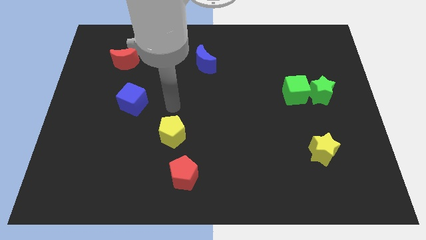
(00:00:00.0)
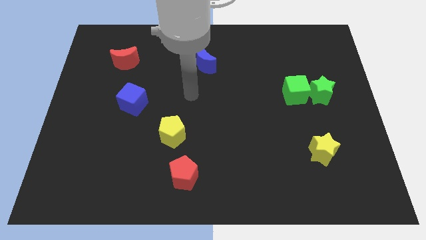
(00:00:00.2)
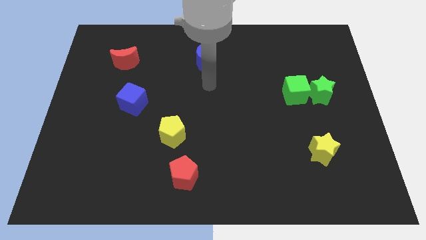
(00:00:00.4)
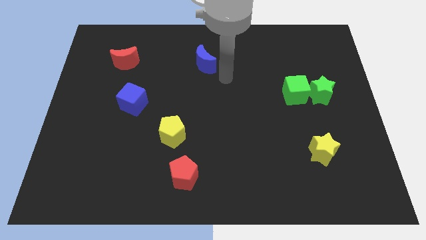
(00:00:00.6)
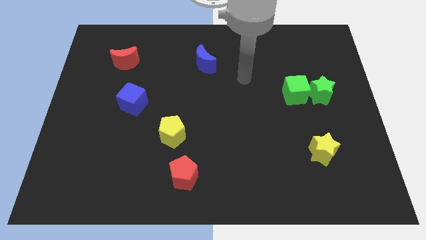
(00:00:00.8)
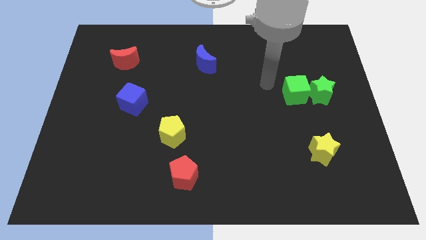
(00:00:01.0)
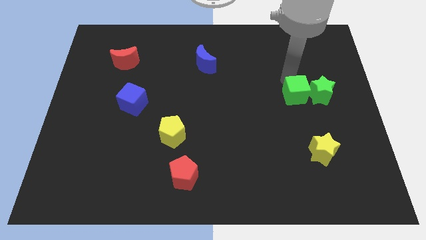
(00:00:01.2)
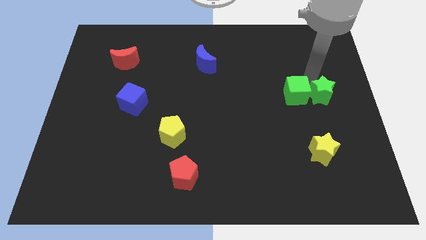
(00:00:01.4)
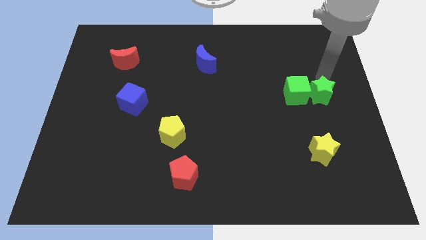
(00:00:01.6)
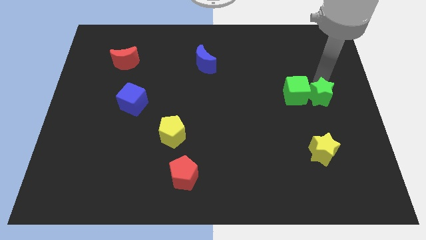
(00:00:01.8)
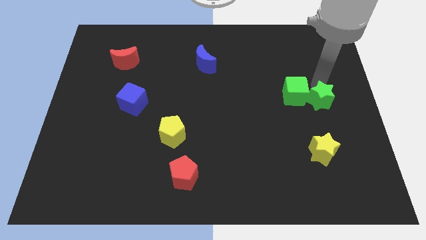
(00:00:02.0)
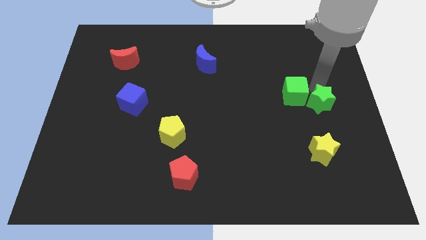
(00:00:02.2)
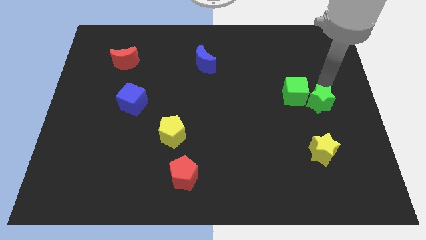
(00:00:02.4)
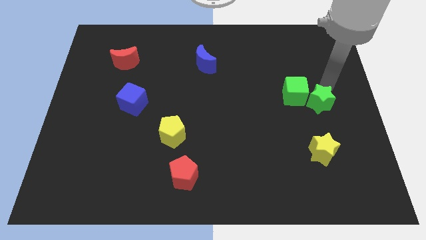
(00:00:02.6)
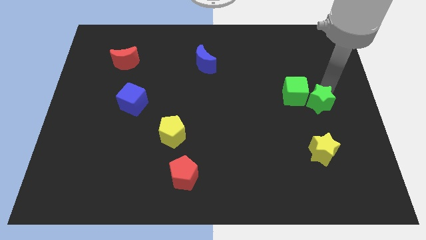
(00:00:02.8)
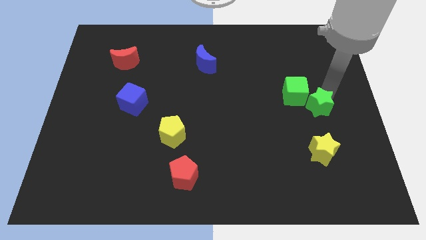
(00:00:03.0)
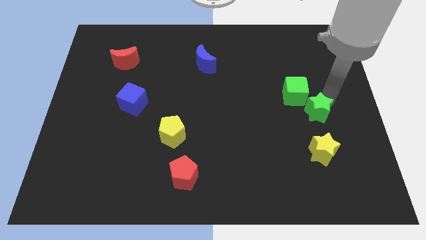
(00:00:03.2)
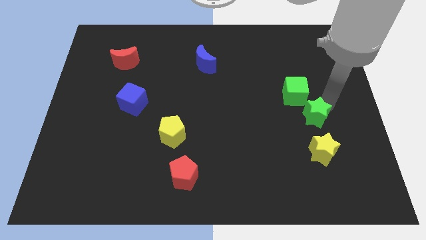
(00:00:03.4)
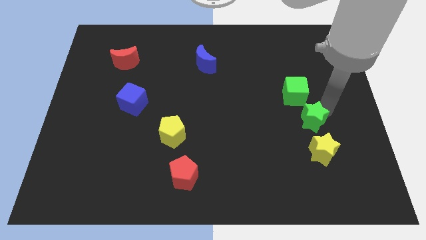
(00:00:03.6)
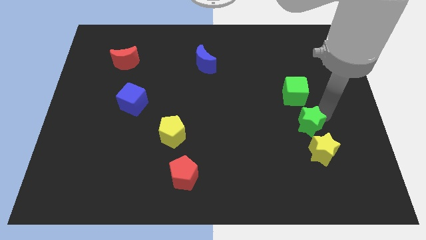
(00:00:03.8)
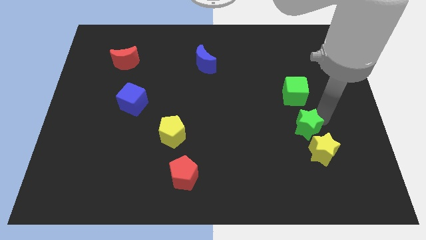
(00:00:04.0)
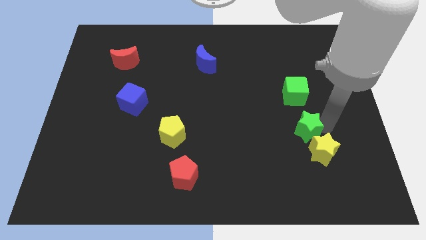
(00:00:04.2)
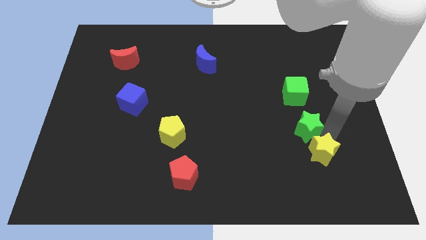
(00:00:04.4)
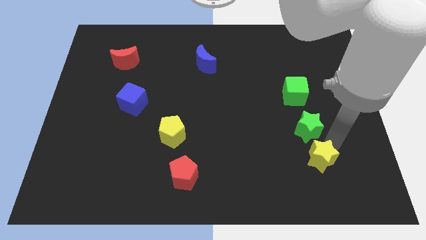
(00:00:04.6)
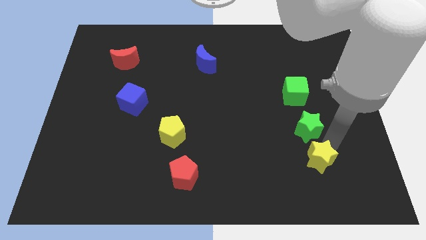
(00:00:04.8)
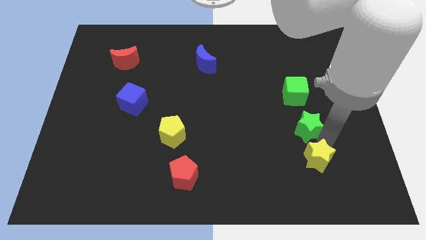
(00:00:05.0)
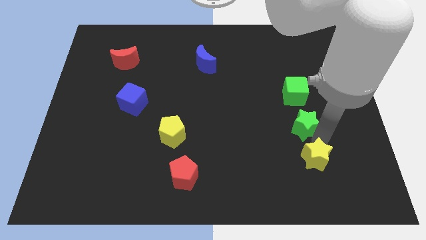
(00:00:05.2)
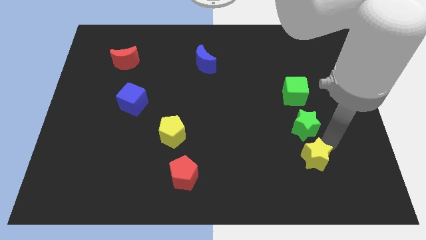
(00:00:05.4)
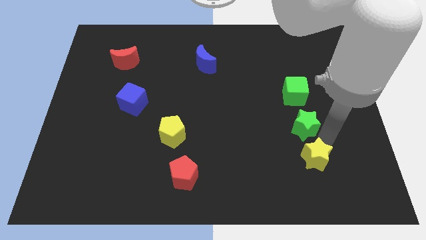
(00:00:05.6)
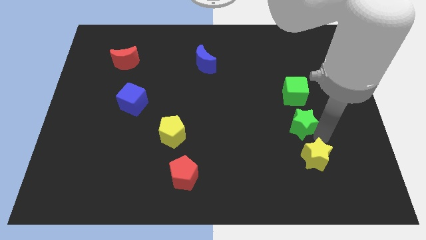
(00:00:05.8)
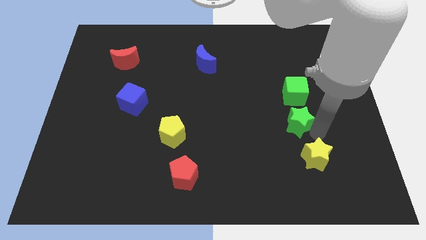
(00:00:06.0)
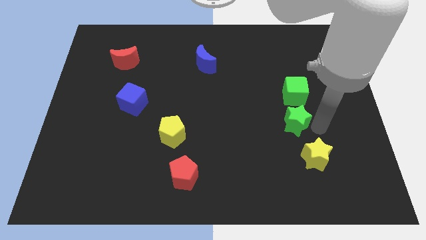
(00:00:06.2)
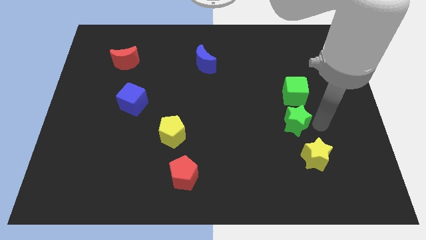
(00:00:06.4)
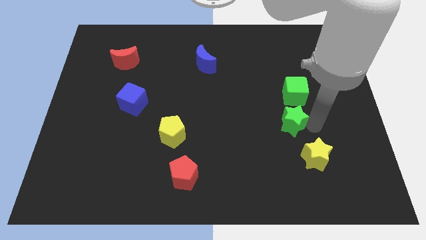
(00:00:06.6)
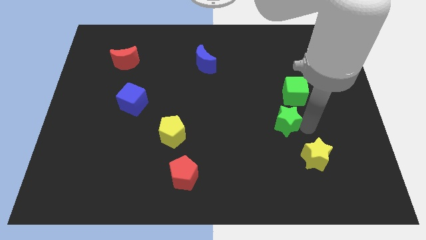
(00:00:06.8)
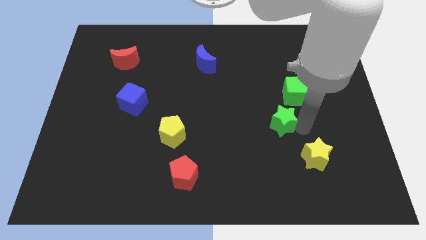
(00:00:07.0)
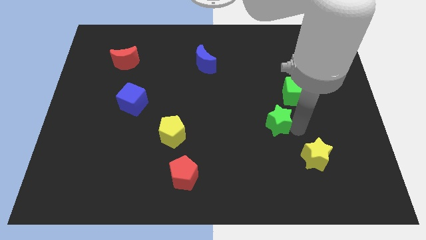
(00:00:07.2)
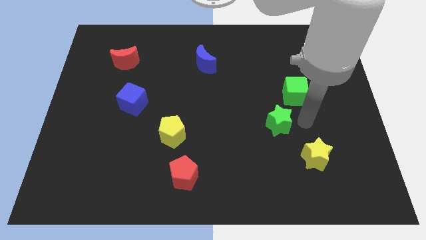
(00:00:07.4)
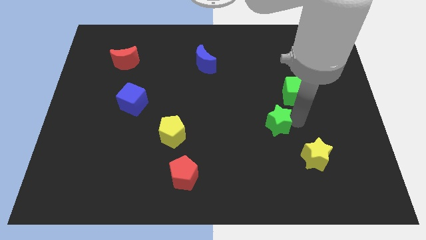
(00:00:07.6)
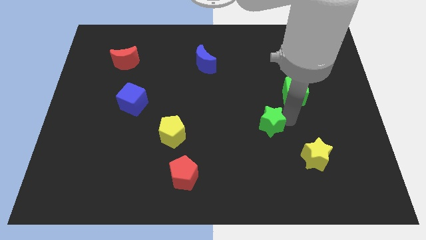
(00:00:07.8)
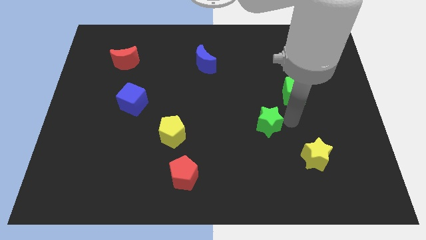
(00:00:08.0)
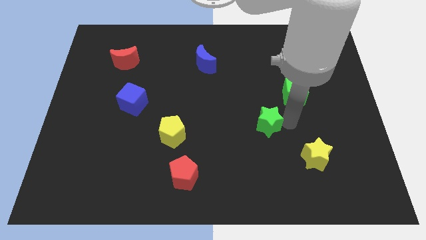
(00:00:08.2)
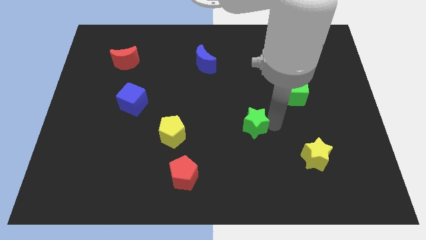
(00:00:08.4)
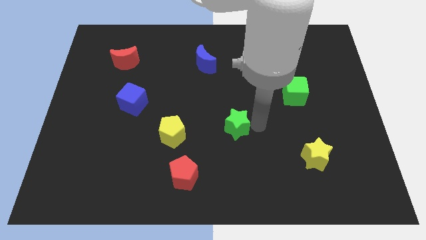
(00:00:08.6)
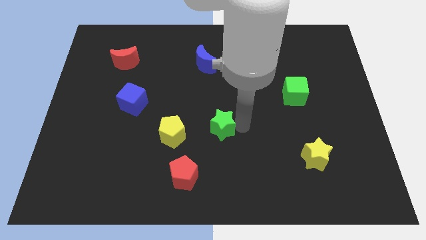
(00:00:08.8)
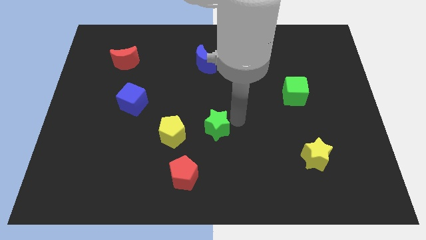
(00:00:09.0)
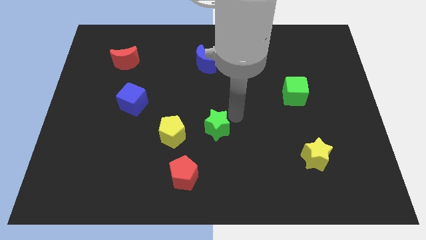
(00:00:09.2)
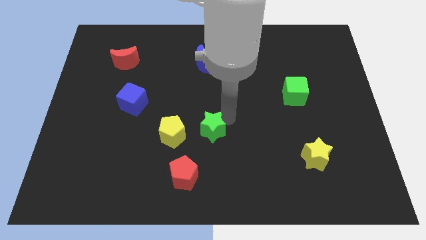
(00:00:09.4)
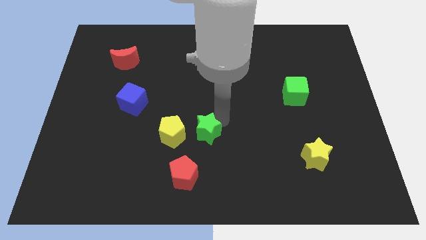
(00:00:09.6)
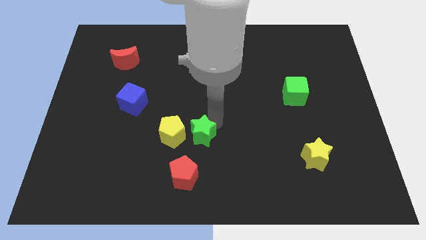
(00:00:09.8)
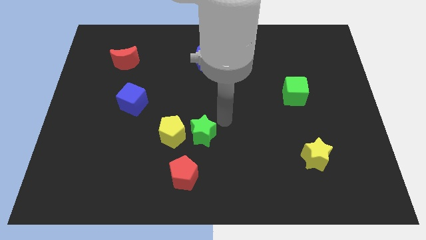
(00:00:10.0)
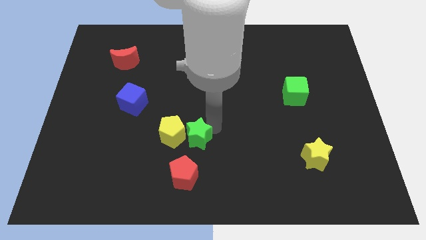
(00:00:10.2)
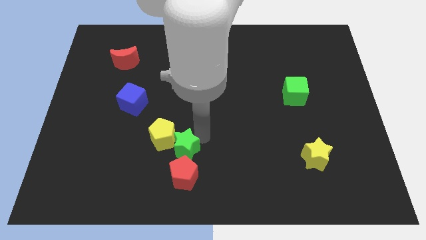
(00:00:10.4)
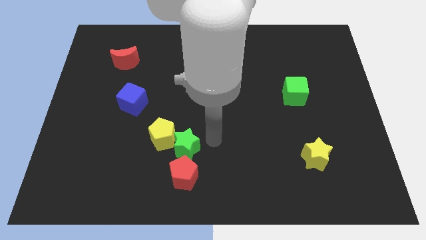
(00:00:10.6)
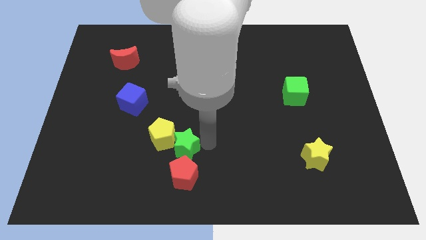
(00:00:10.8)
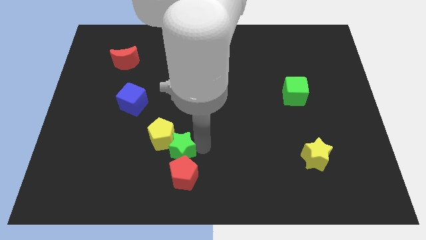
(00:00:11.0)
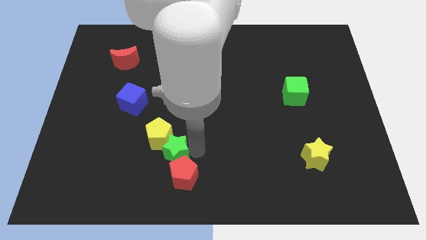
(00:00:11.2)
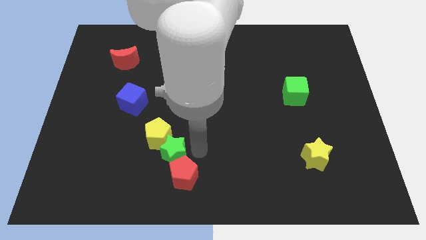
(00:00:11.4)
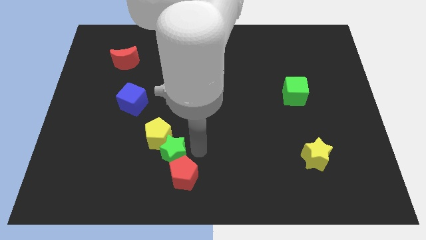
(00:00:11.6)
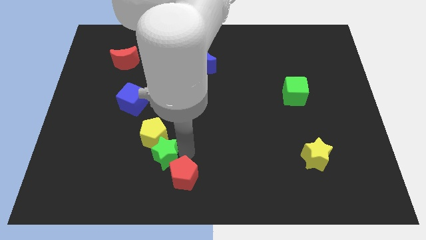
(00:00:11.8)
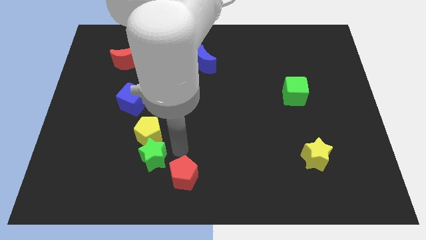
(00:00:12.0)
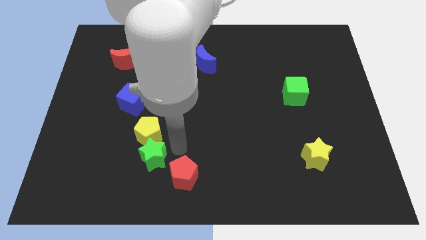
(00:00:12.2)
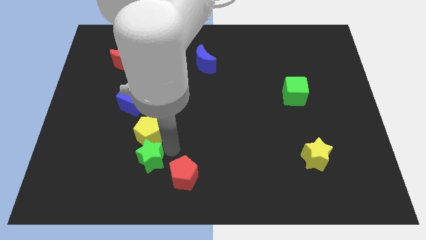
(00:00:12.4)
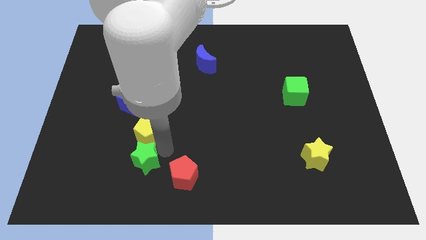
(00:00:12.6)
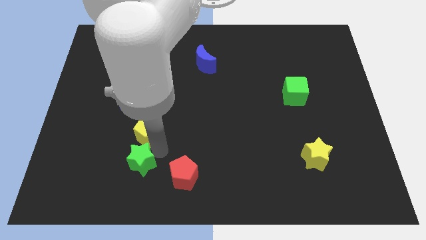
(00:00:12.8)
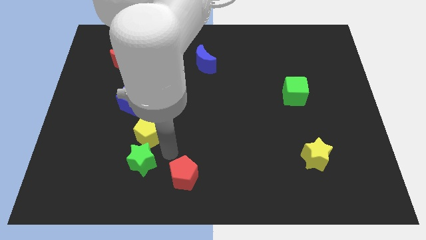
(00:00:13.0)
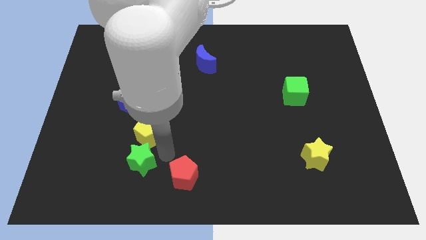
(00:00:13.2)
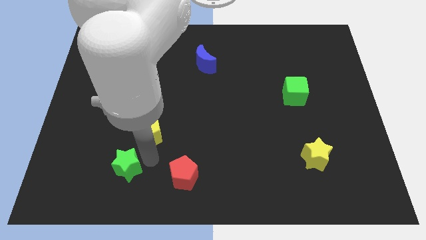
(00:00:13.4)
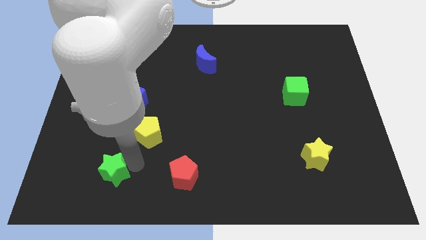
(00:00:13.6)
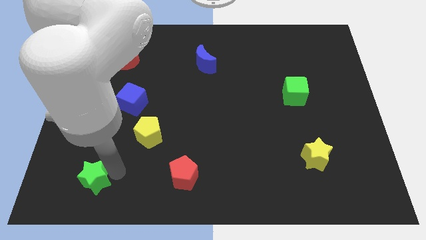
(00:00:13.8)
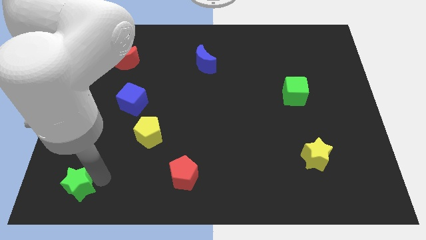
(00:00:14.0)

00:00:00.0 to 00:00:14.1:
move the green star to the lower left corner
